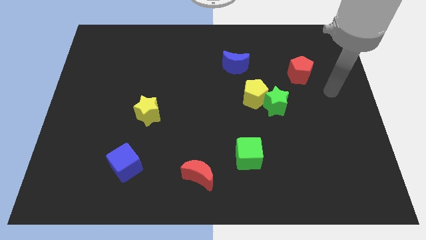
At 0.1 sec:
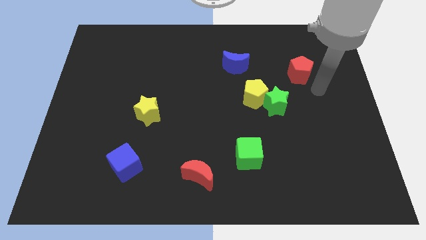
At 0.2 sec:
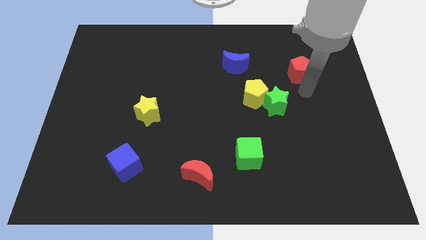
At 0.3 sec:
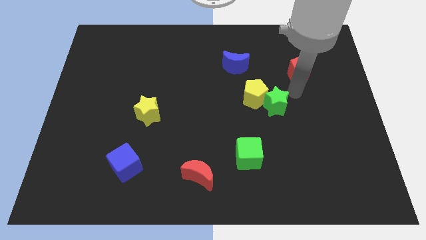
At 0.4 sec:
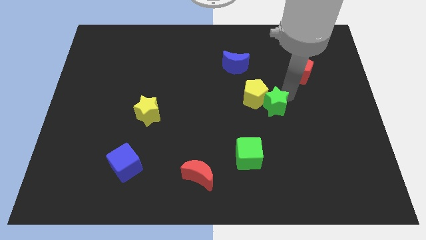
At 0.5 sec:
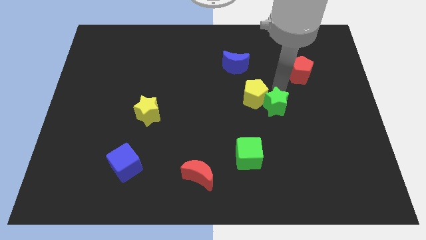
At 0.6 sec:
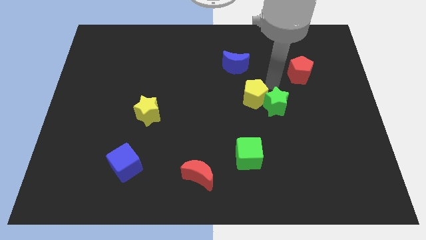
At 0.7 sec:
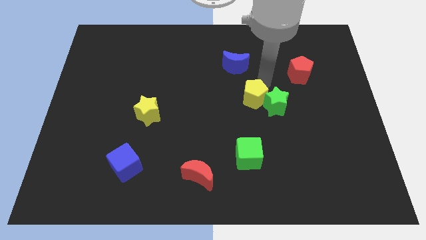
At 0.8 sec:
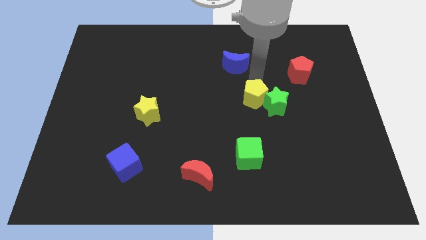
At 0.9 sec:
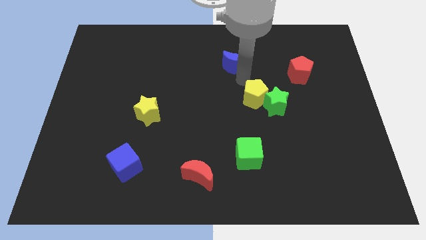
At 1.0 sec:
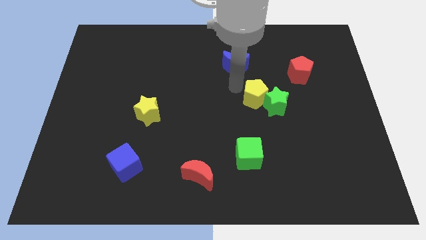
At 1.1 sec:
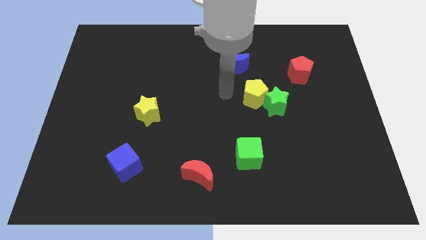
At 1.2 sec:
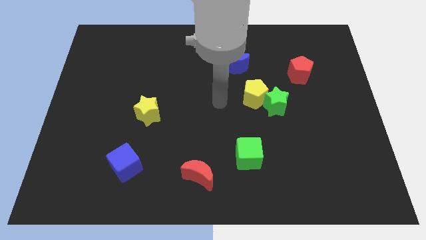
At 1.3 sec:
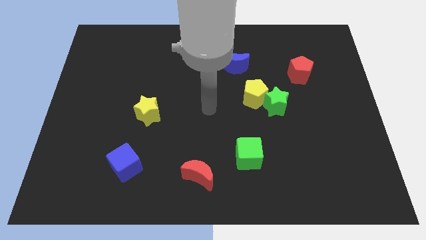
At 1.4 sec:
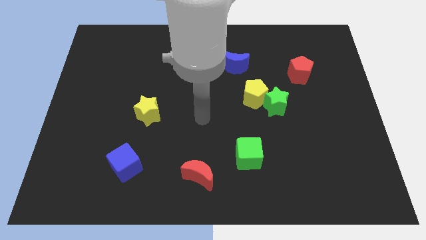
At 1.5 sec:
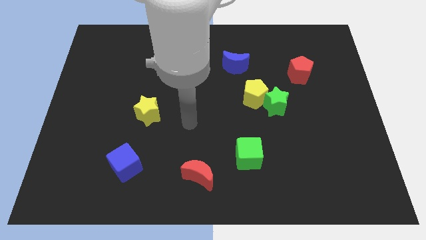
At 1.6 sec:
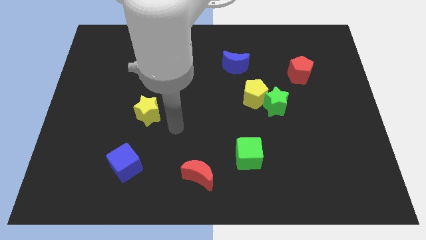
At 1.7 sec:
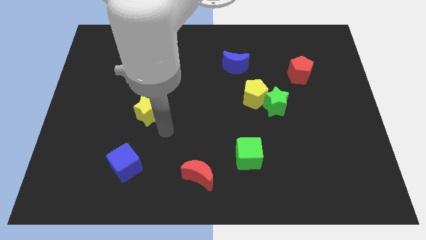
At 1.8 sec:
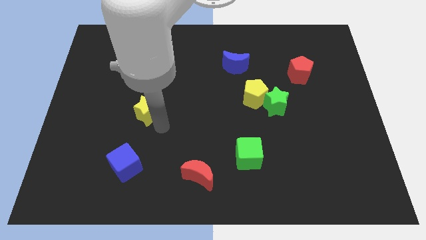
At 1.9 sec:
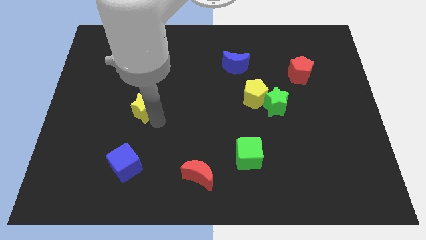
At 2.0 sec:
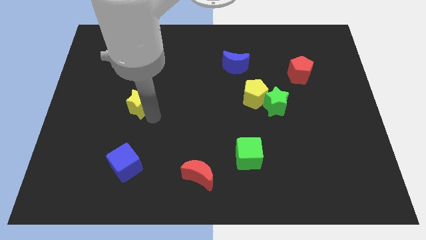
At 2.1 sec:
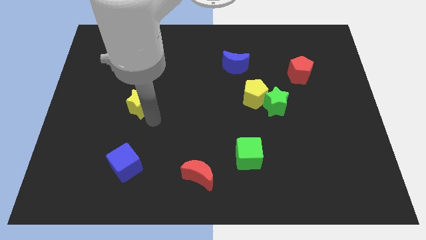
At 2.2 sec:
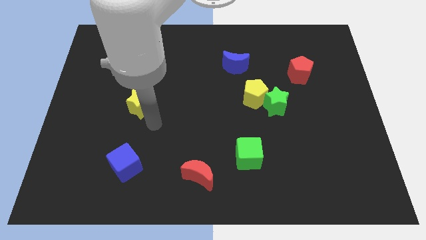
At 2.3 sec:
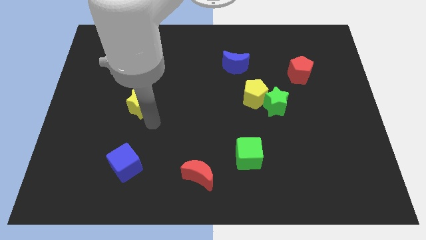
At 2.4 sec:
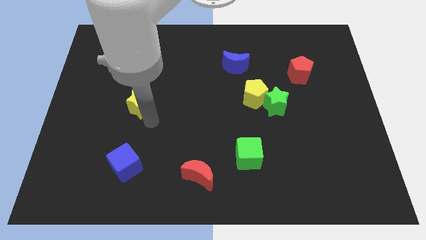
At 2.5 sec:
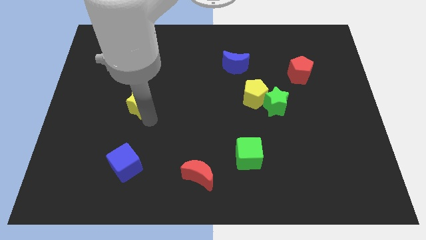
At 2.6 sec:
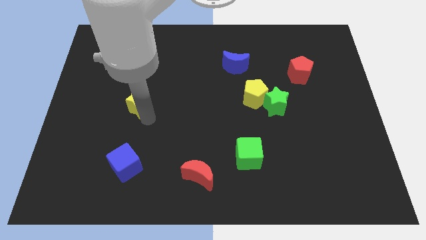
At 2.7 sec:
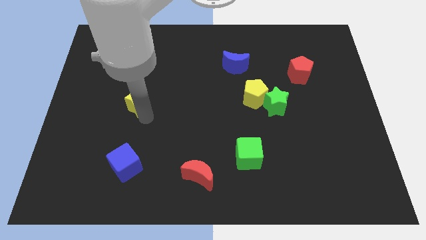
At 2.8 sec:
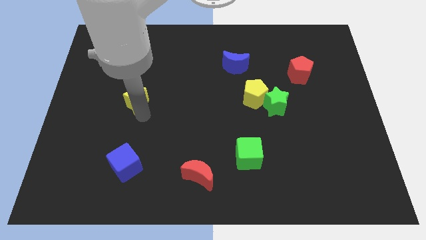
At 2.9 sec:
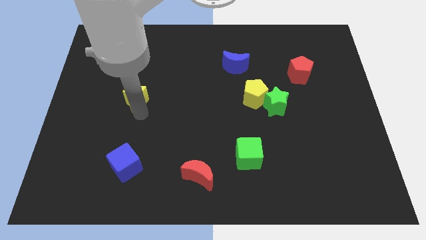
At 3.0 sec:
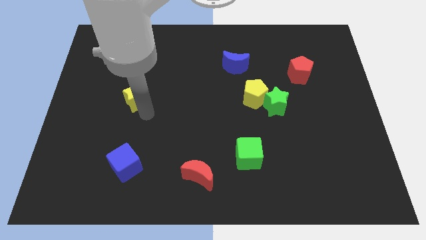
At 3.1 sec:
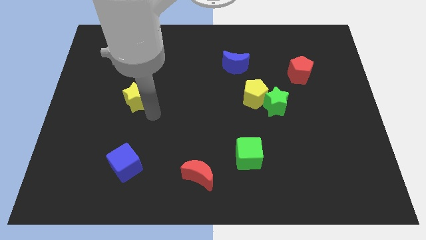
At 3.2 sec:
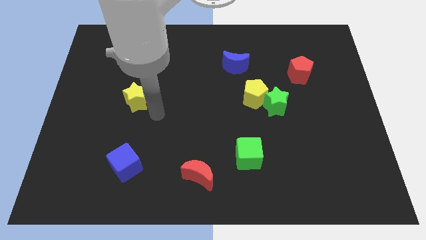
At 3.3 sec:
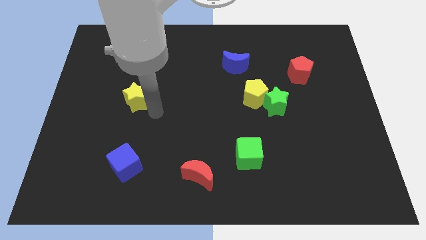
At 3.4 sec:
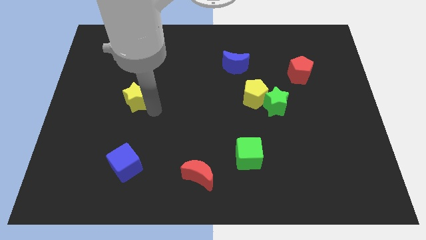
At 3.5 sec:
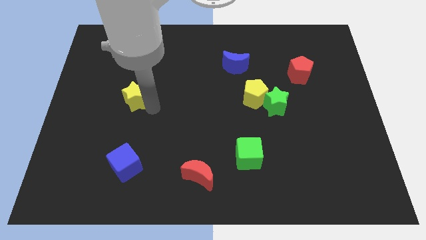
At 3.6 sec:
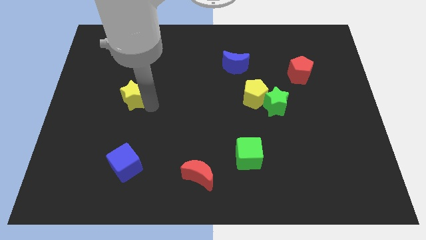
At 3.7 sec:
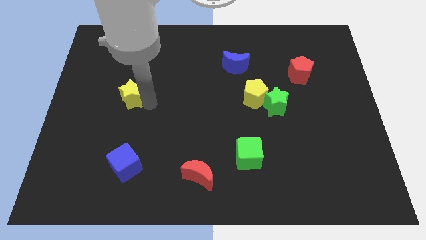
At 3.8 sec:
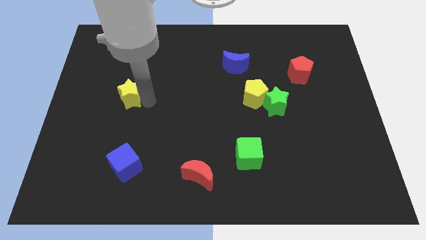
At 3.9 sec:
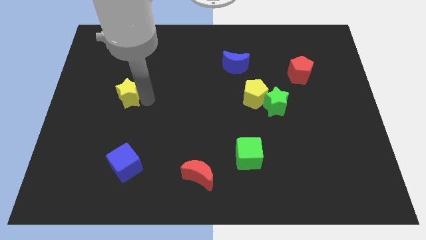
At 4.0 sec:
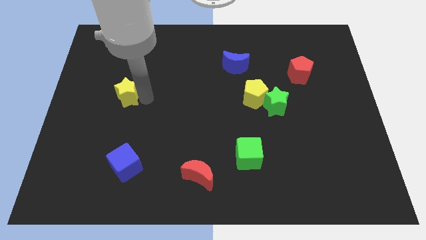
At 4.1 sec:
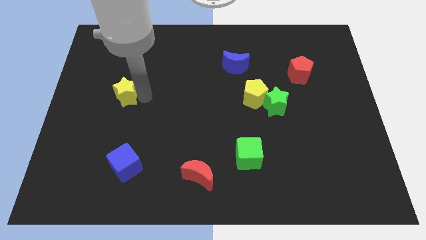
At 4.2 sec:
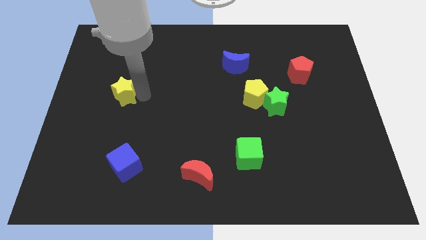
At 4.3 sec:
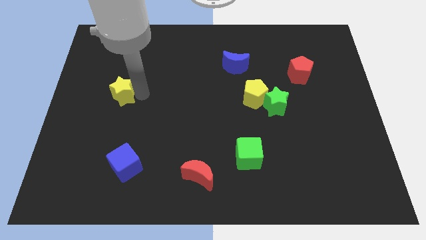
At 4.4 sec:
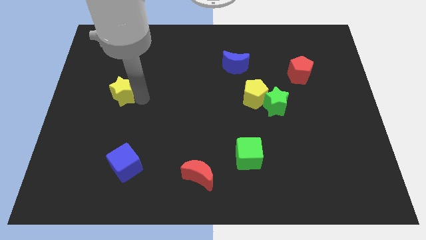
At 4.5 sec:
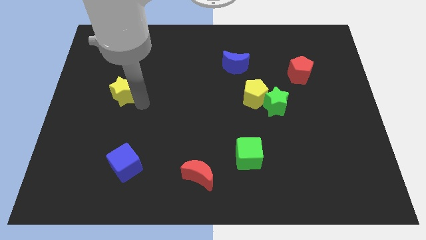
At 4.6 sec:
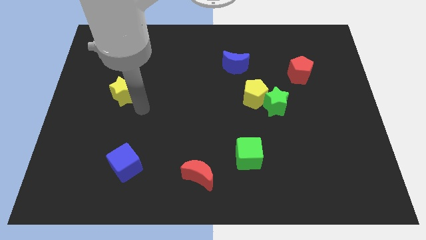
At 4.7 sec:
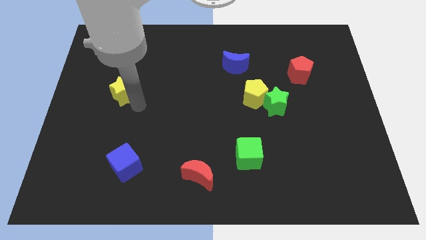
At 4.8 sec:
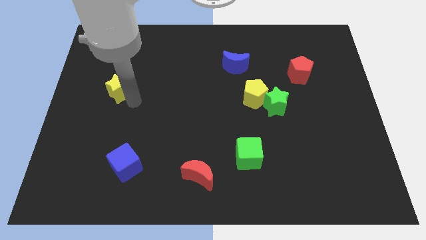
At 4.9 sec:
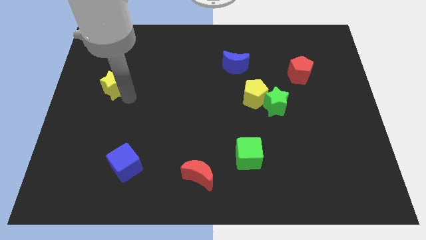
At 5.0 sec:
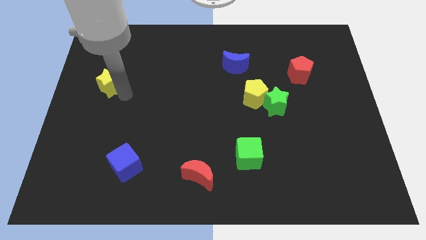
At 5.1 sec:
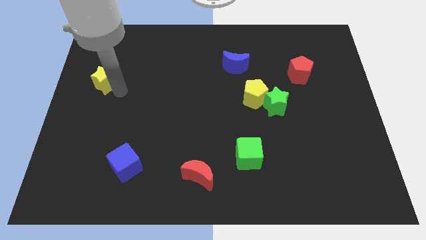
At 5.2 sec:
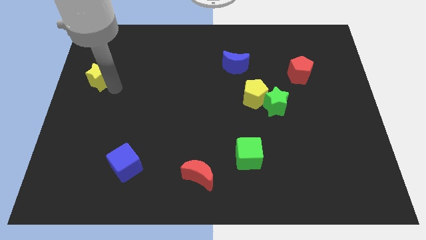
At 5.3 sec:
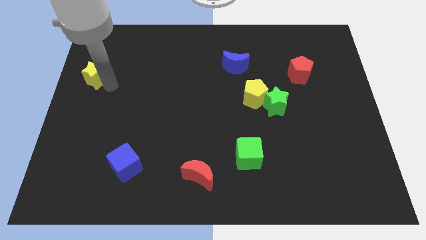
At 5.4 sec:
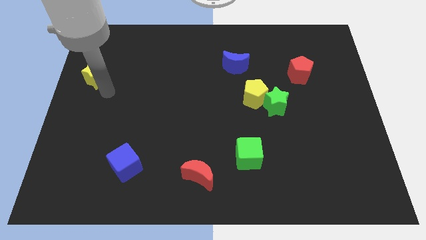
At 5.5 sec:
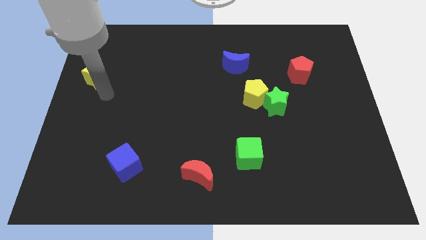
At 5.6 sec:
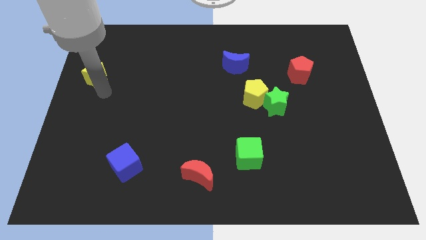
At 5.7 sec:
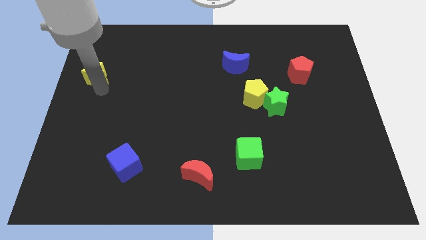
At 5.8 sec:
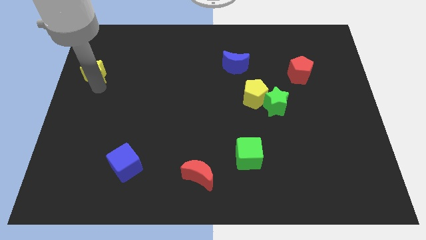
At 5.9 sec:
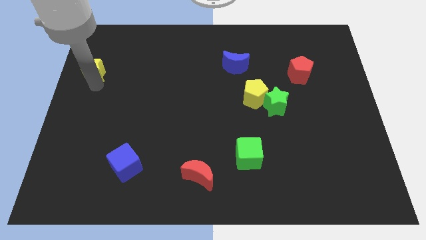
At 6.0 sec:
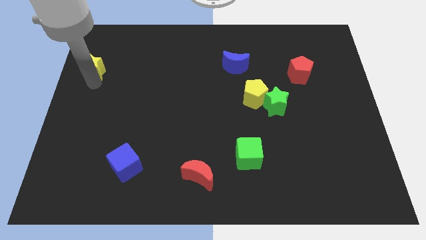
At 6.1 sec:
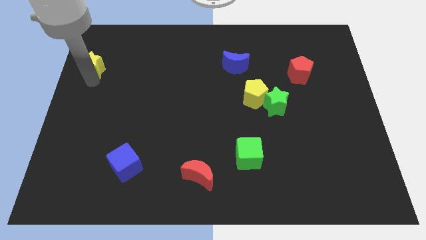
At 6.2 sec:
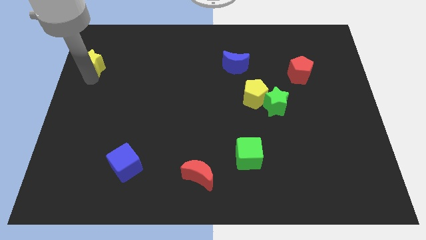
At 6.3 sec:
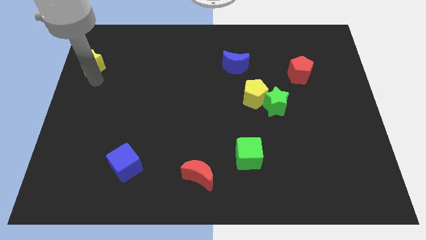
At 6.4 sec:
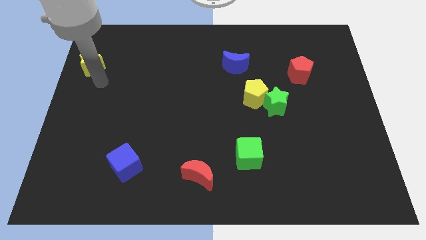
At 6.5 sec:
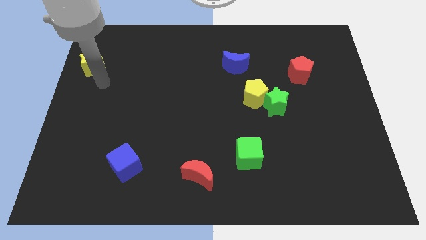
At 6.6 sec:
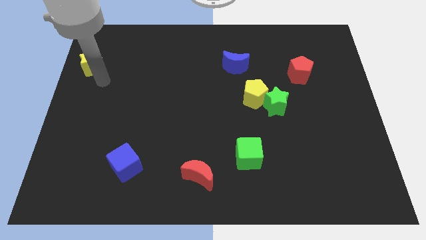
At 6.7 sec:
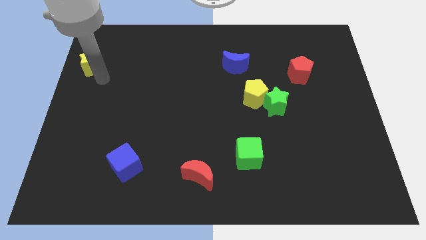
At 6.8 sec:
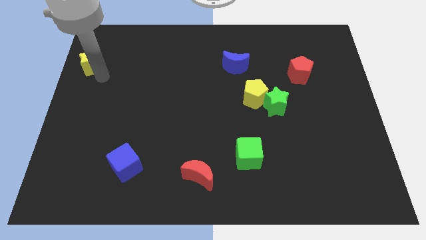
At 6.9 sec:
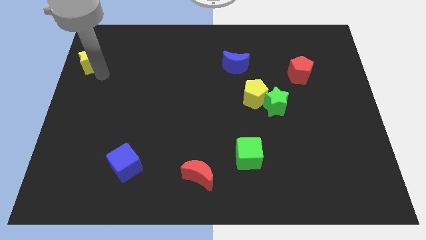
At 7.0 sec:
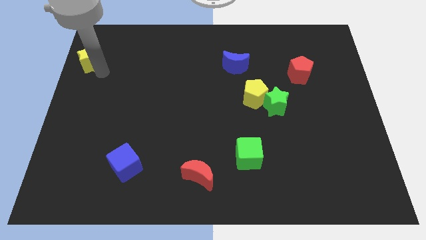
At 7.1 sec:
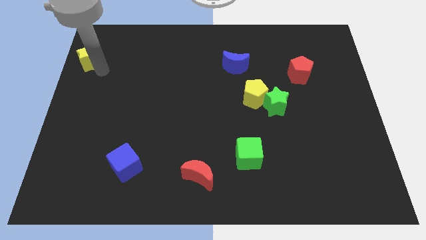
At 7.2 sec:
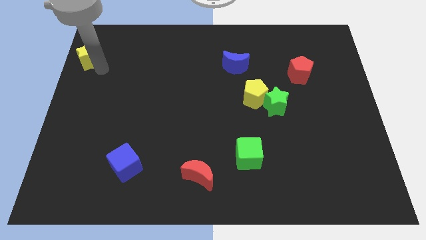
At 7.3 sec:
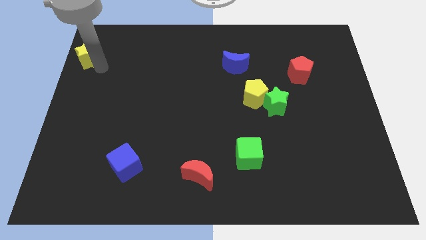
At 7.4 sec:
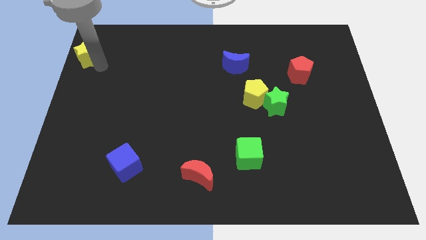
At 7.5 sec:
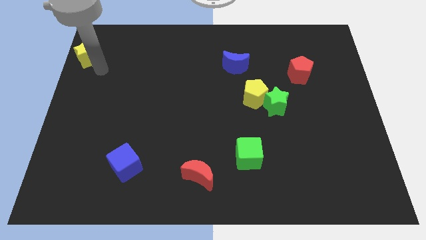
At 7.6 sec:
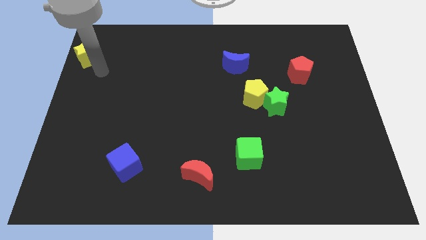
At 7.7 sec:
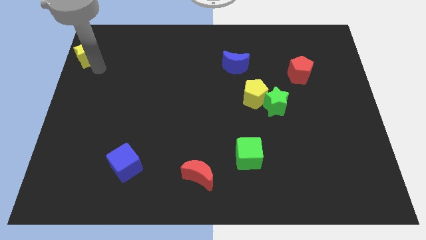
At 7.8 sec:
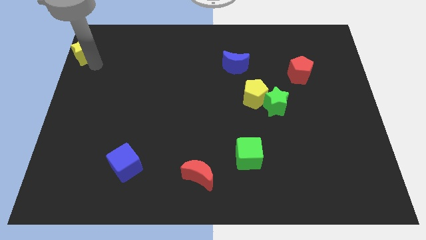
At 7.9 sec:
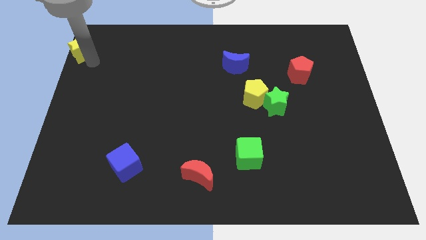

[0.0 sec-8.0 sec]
put the yellow star to the top left of the board
